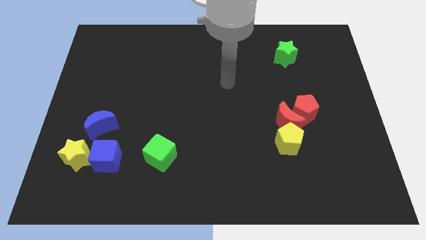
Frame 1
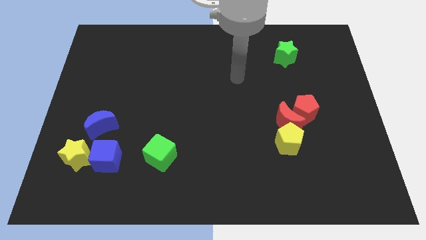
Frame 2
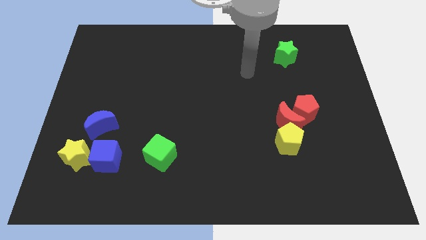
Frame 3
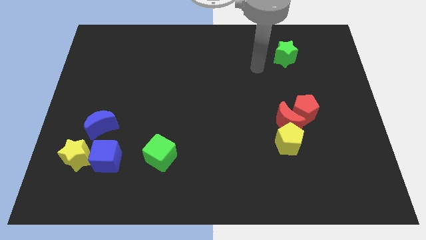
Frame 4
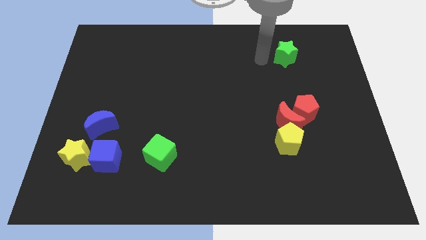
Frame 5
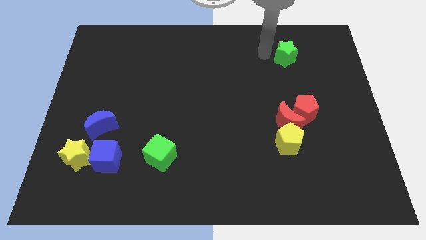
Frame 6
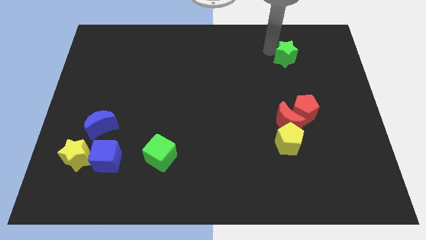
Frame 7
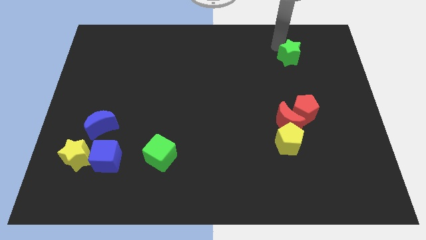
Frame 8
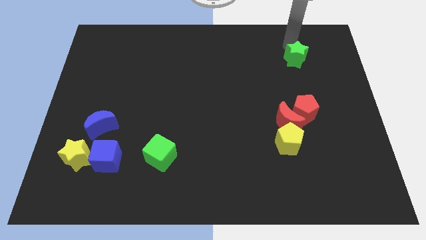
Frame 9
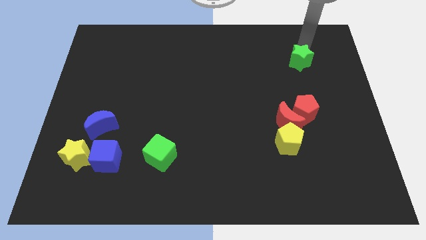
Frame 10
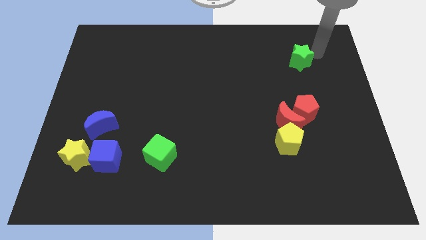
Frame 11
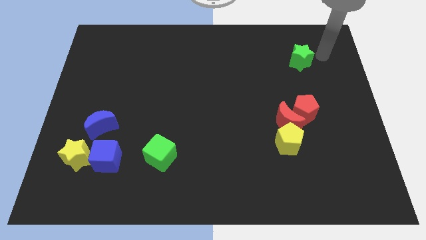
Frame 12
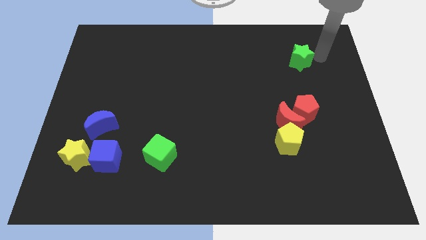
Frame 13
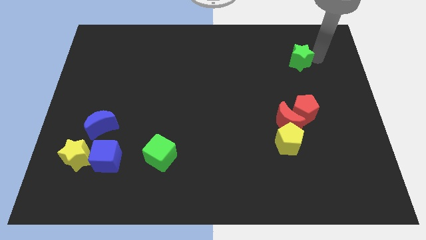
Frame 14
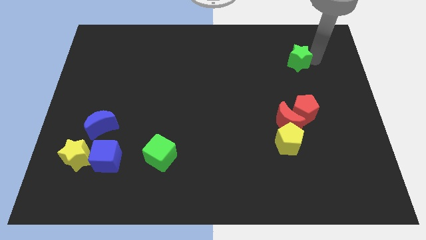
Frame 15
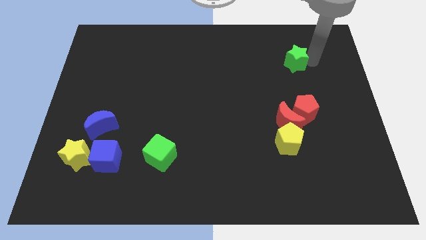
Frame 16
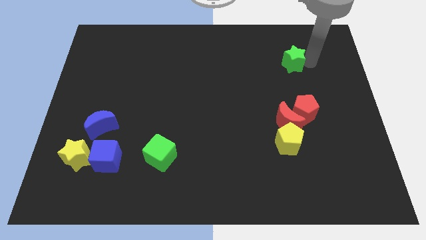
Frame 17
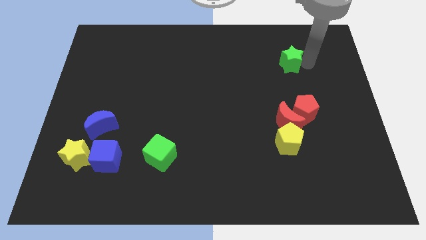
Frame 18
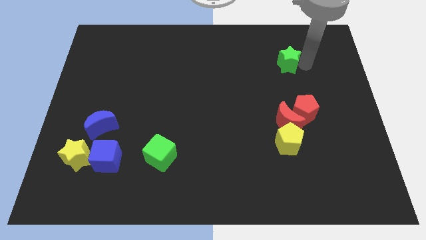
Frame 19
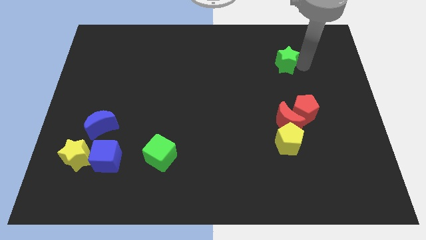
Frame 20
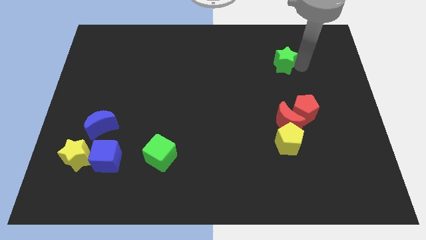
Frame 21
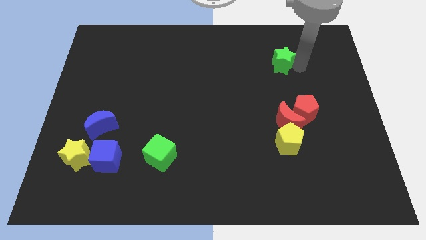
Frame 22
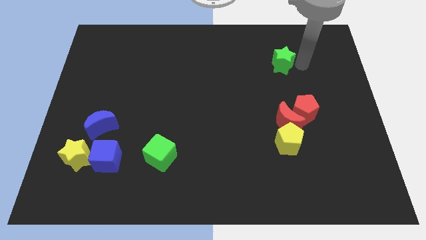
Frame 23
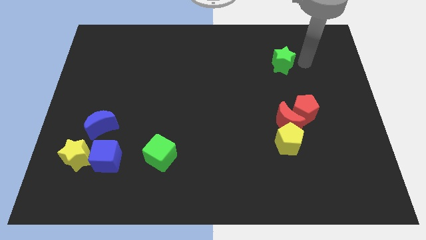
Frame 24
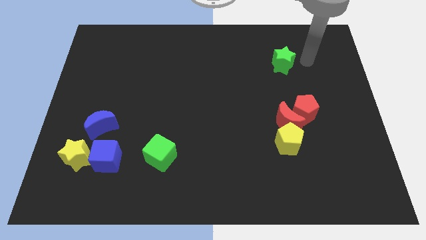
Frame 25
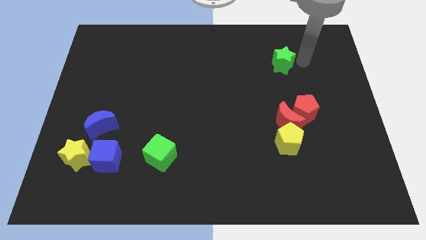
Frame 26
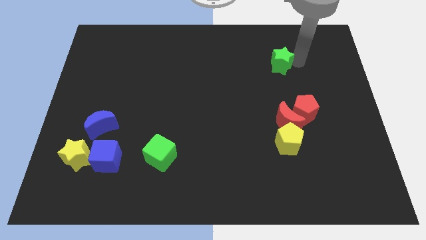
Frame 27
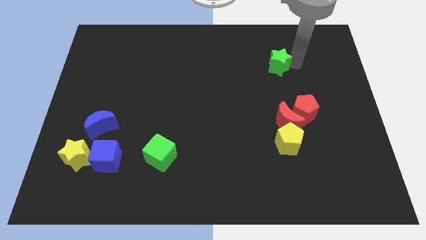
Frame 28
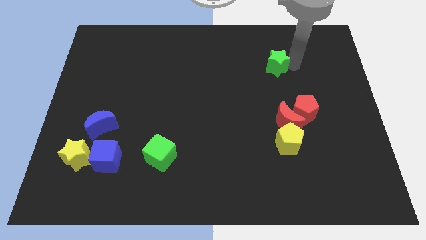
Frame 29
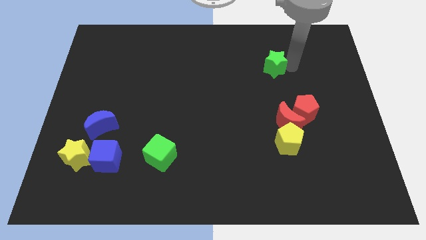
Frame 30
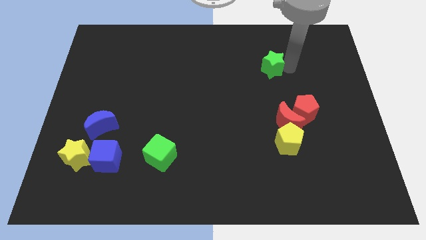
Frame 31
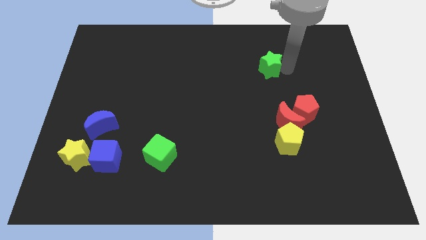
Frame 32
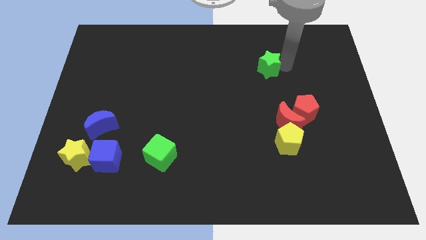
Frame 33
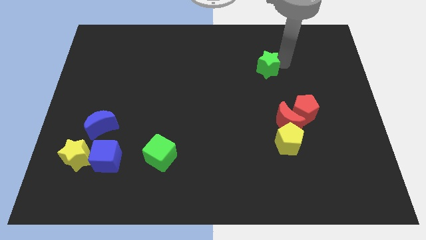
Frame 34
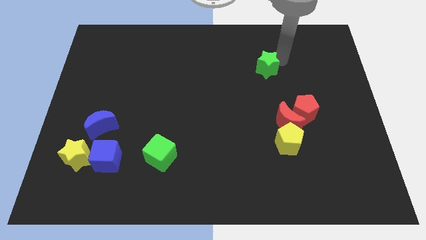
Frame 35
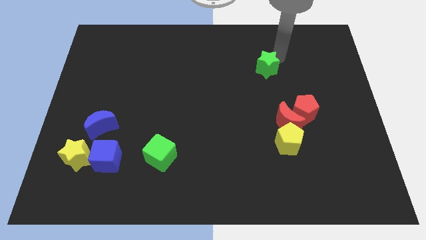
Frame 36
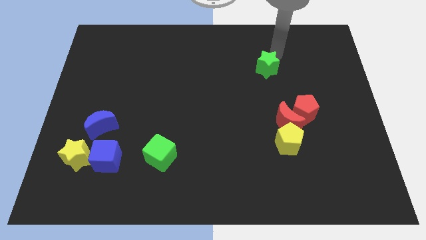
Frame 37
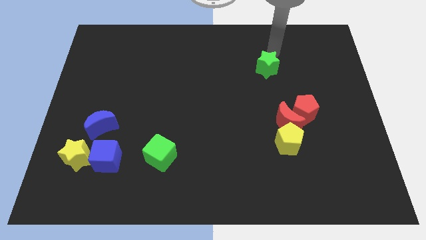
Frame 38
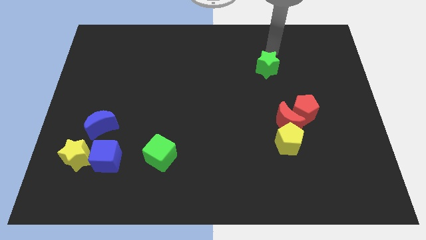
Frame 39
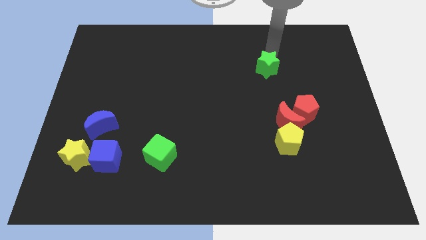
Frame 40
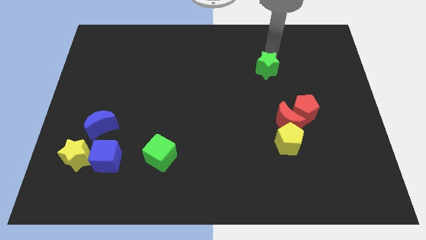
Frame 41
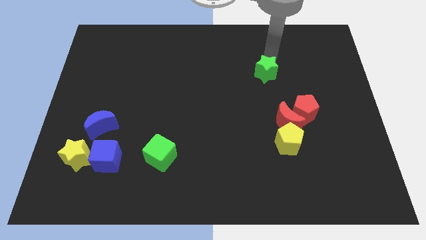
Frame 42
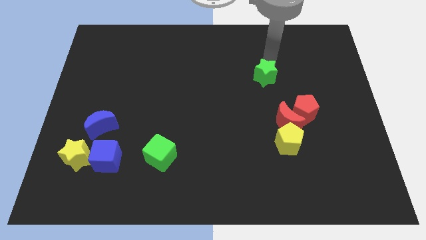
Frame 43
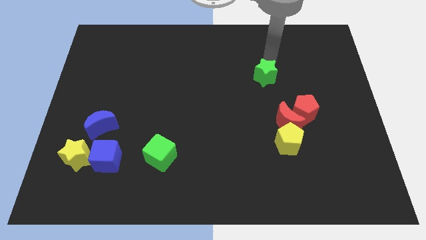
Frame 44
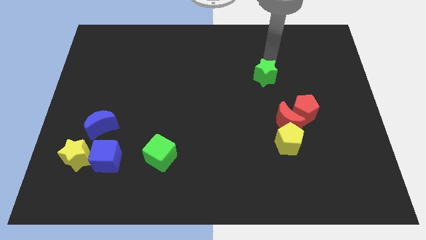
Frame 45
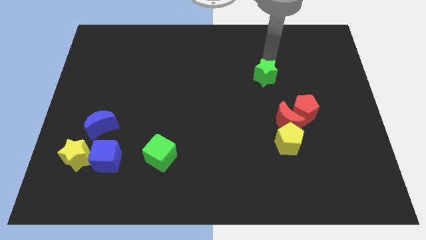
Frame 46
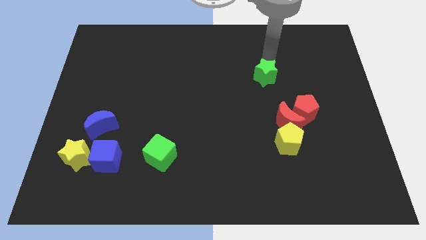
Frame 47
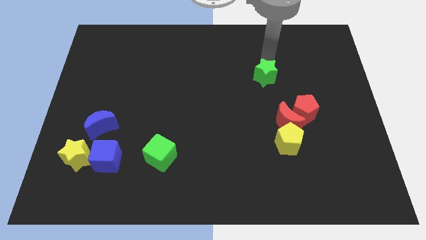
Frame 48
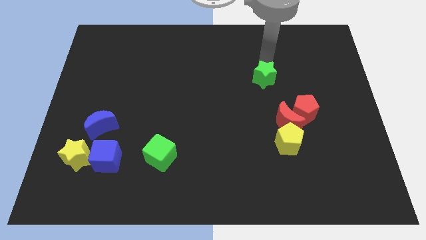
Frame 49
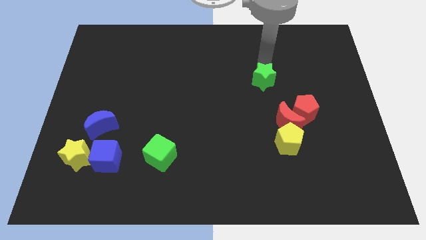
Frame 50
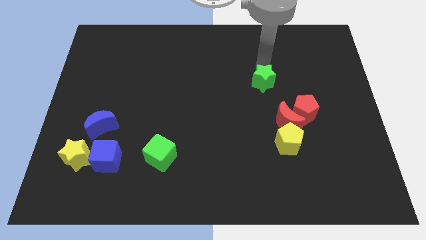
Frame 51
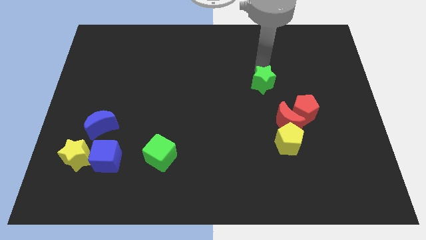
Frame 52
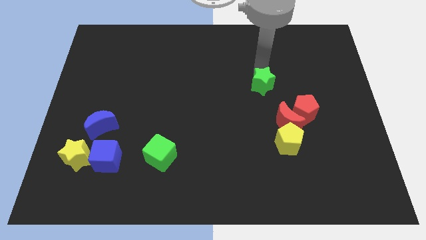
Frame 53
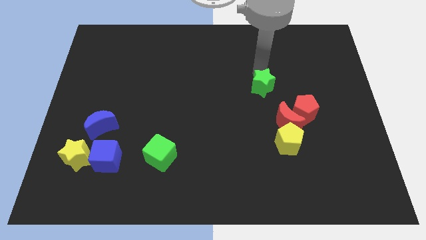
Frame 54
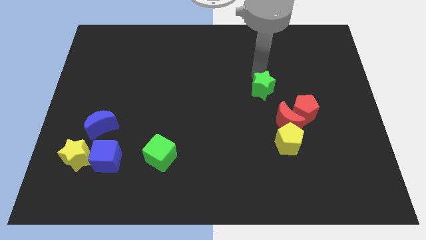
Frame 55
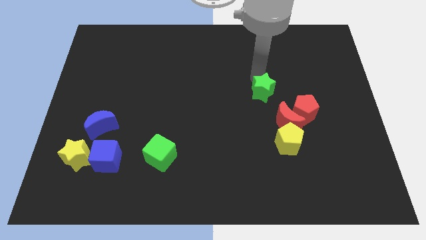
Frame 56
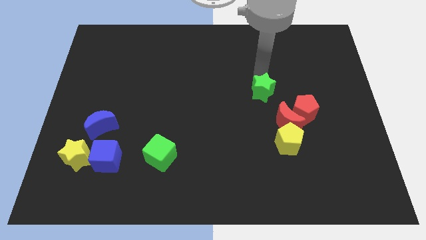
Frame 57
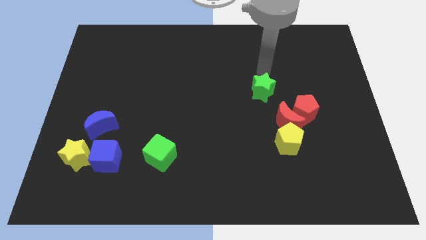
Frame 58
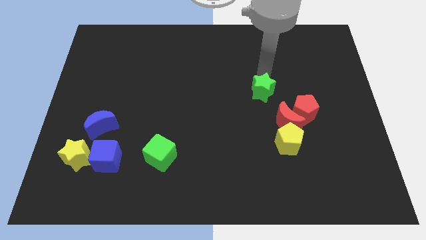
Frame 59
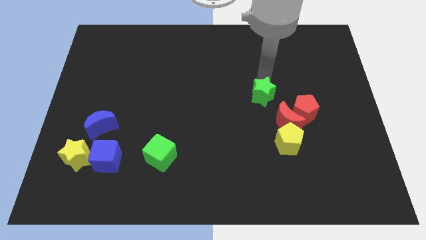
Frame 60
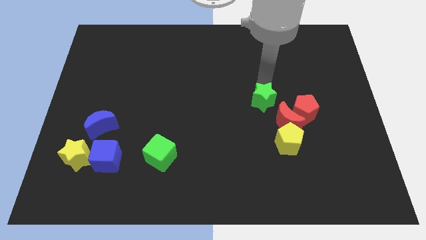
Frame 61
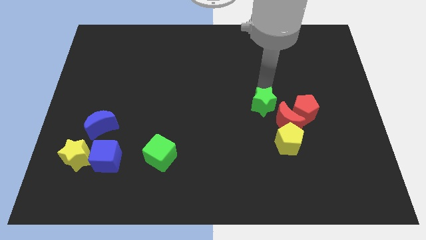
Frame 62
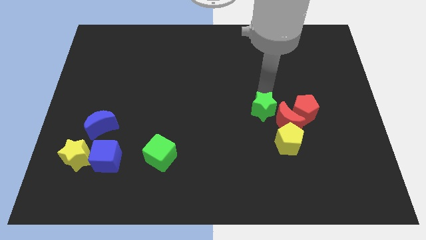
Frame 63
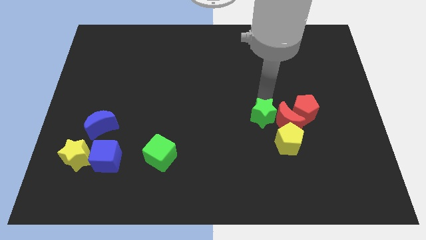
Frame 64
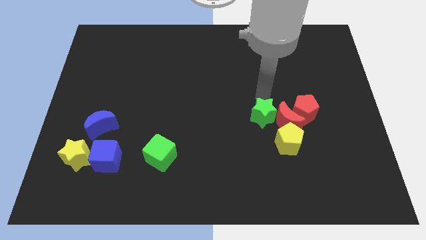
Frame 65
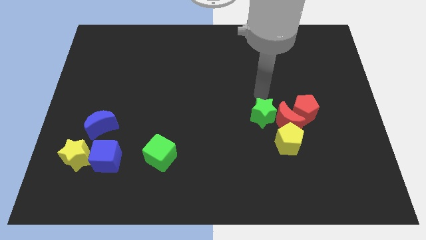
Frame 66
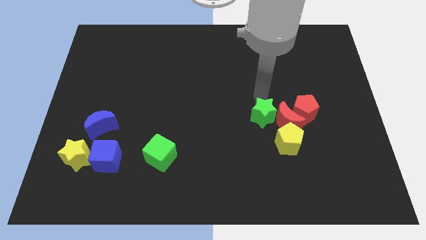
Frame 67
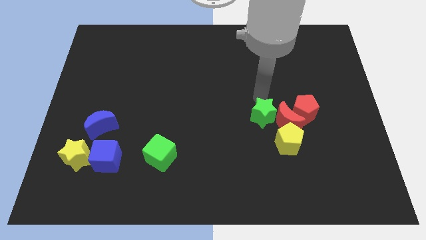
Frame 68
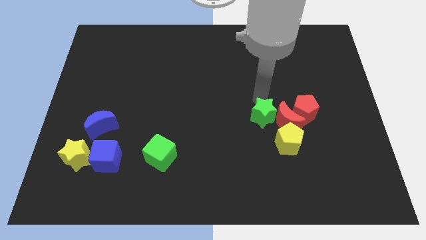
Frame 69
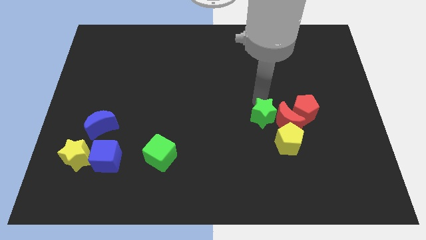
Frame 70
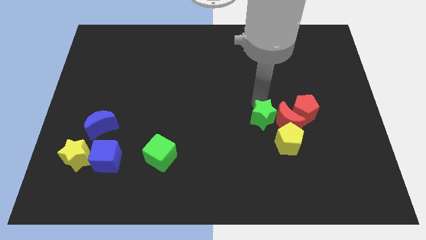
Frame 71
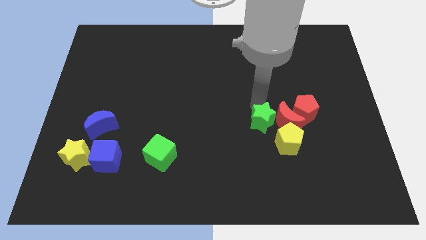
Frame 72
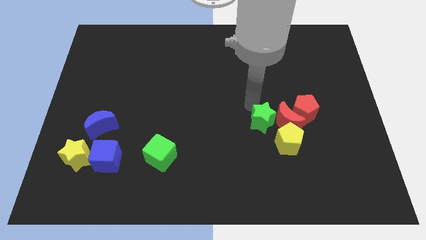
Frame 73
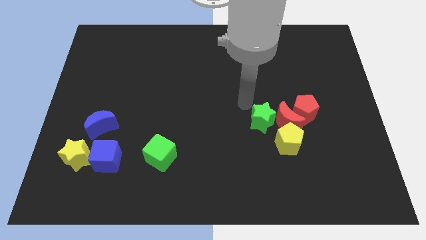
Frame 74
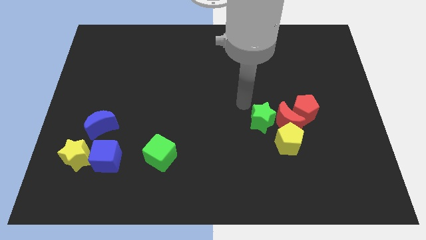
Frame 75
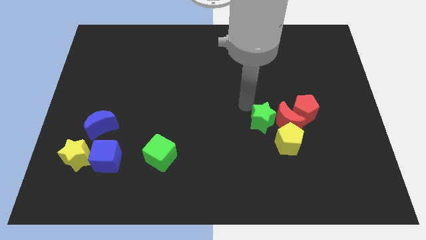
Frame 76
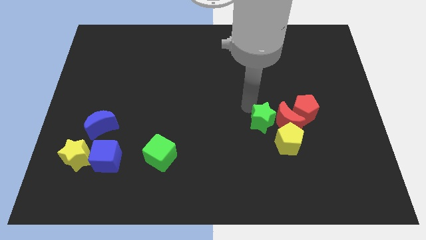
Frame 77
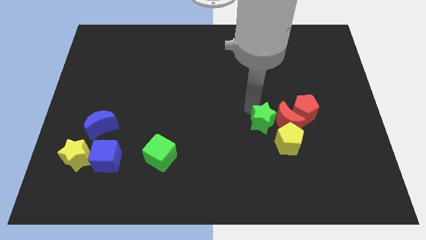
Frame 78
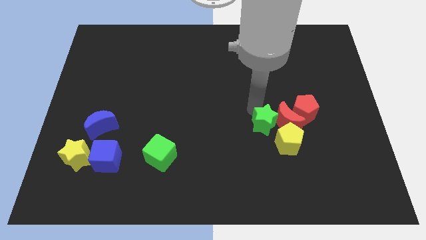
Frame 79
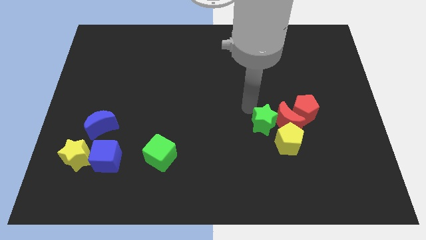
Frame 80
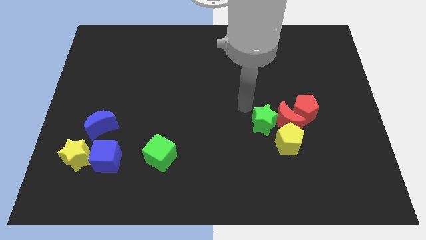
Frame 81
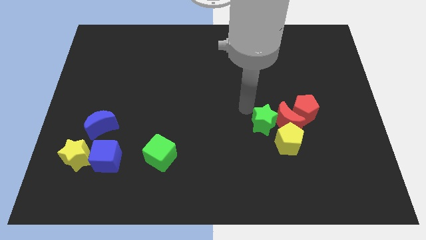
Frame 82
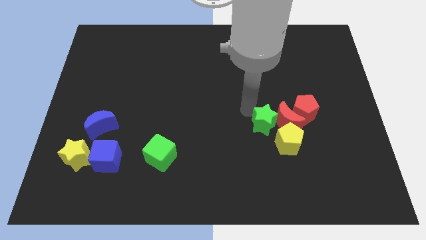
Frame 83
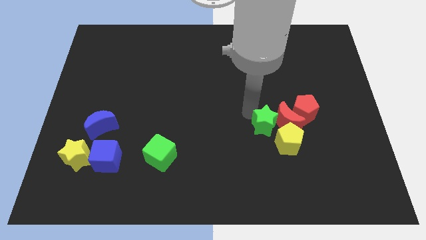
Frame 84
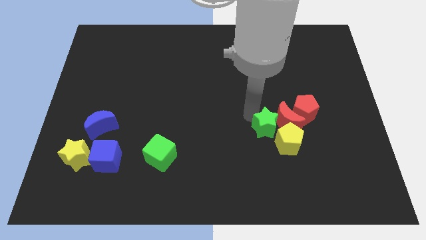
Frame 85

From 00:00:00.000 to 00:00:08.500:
move the green star close to the yellow pentagon
